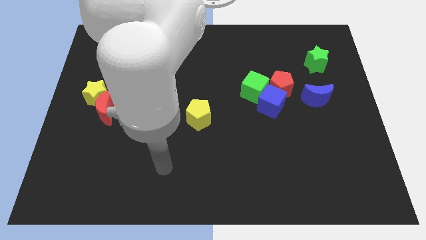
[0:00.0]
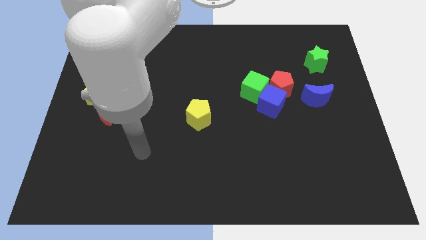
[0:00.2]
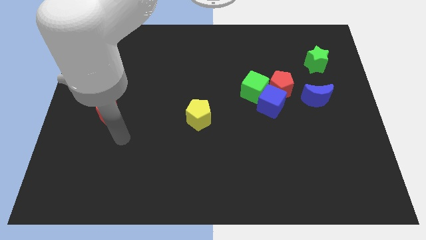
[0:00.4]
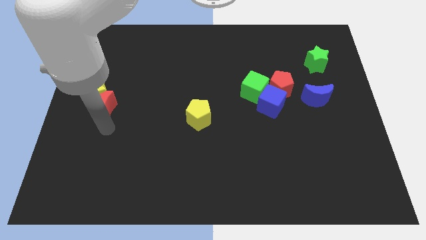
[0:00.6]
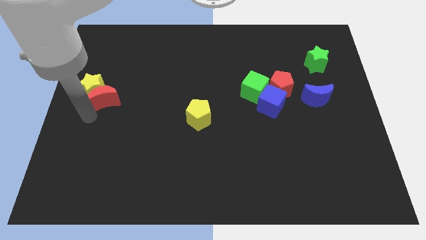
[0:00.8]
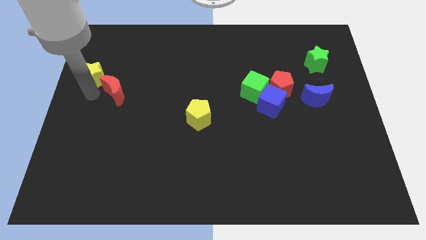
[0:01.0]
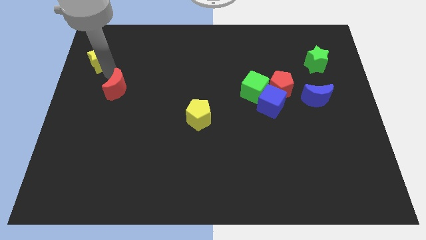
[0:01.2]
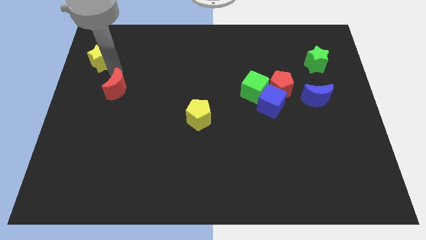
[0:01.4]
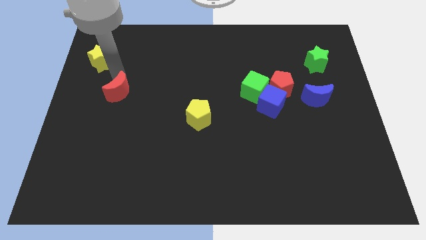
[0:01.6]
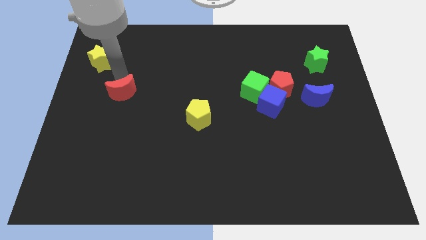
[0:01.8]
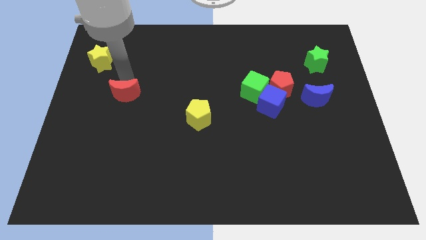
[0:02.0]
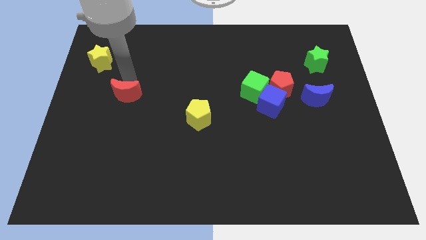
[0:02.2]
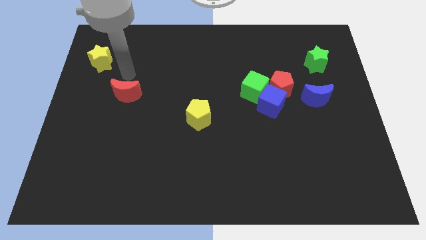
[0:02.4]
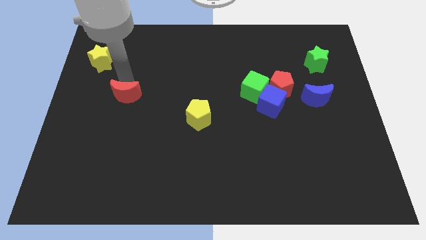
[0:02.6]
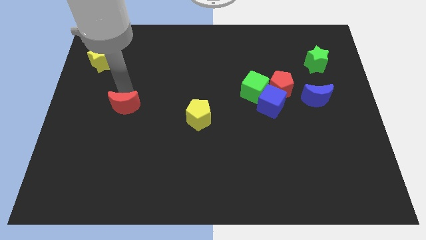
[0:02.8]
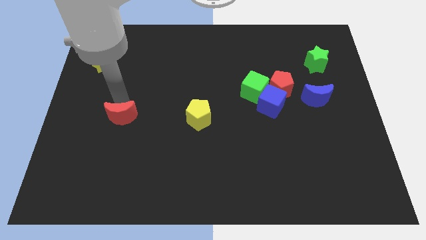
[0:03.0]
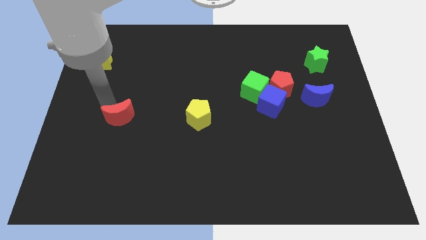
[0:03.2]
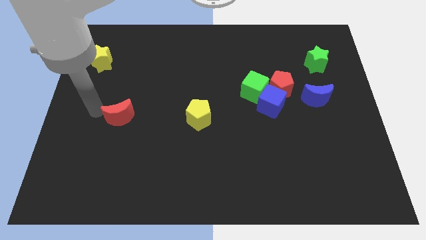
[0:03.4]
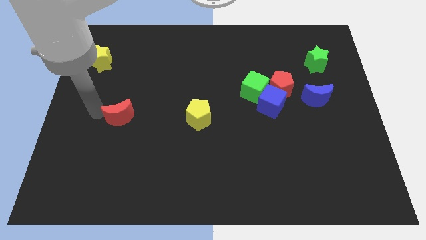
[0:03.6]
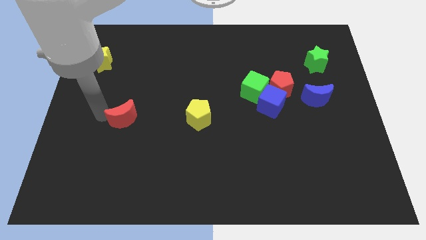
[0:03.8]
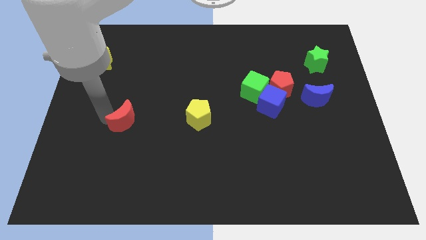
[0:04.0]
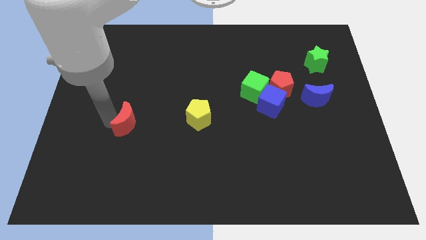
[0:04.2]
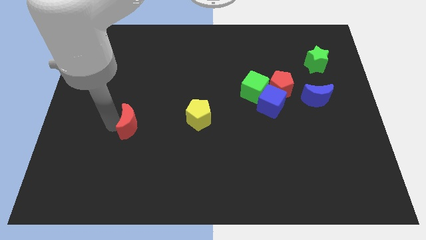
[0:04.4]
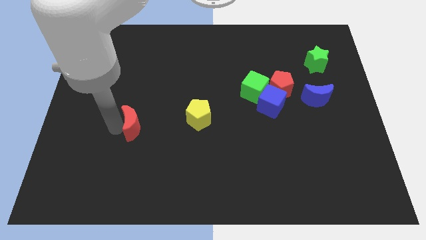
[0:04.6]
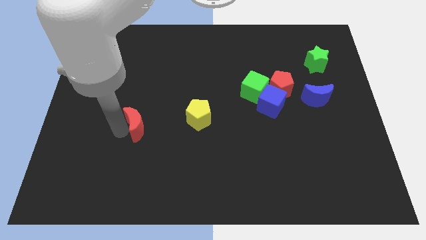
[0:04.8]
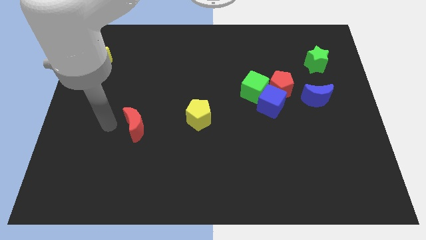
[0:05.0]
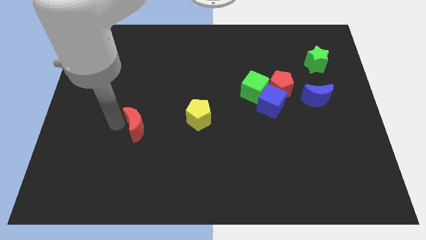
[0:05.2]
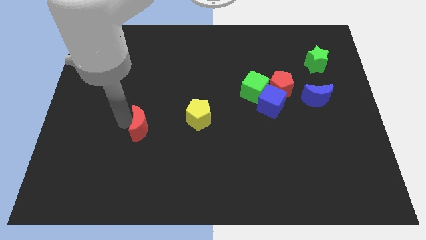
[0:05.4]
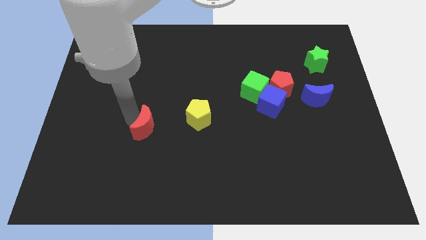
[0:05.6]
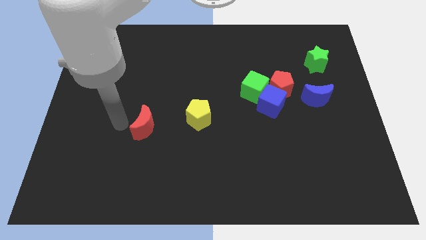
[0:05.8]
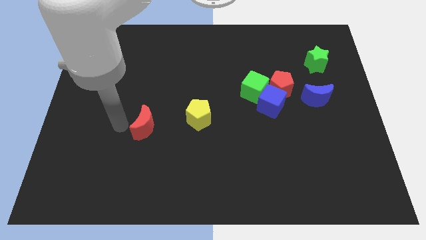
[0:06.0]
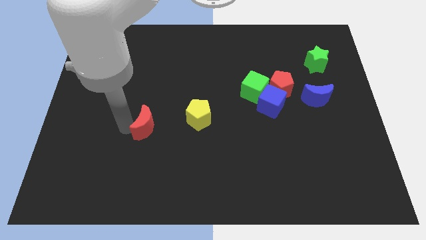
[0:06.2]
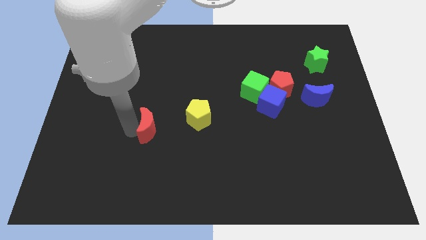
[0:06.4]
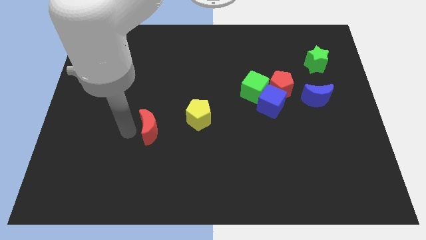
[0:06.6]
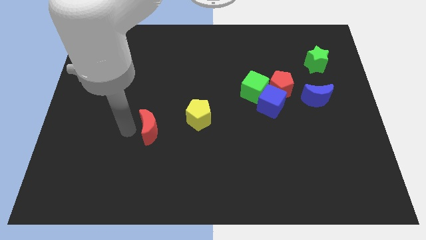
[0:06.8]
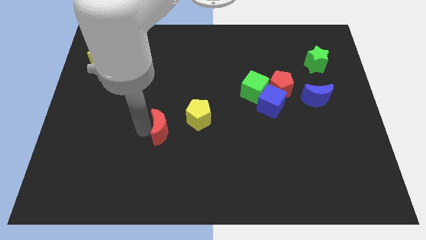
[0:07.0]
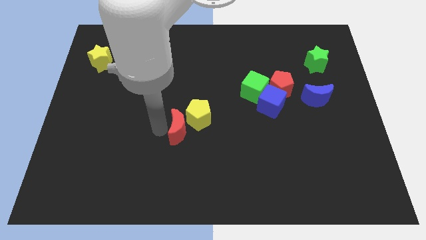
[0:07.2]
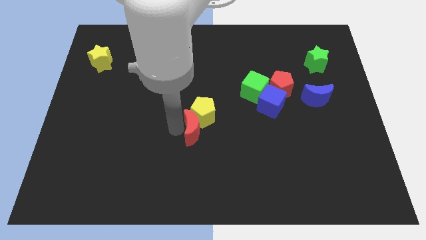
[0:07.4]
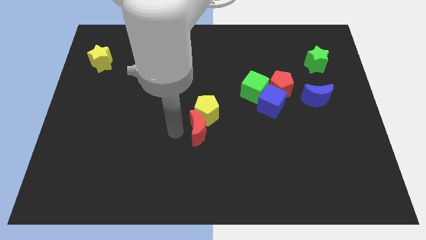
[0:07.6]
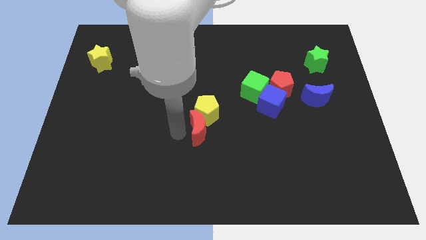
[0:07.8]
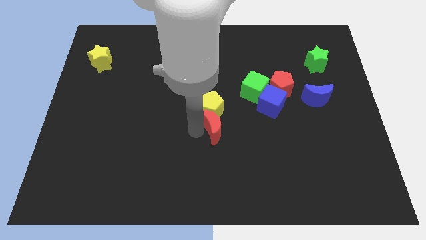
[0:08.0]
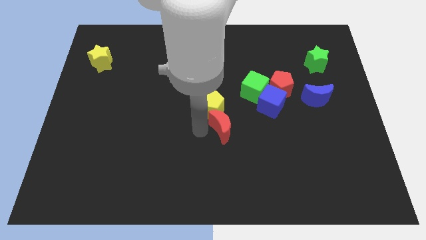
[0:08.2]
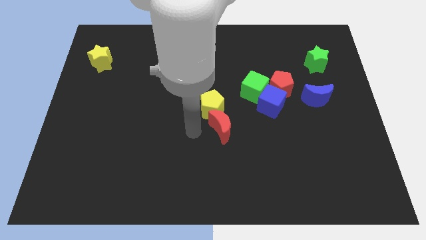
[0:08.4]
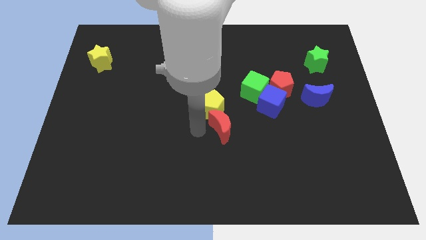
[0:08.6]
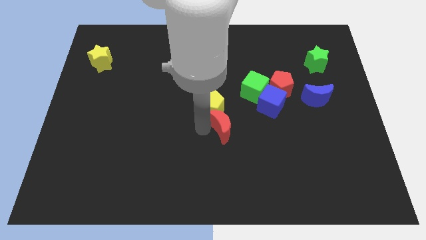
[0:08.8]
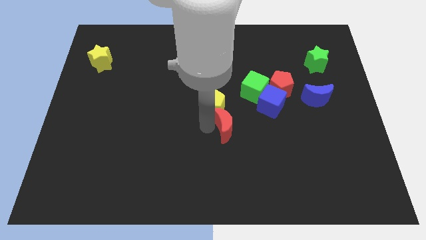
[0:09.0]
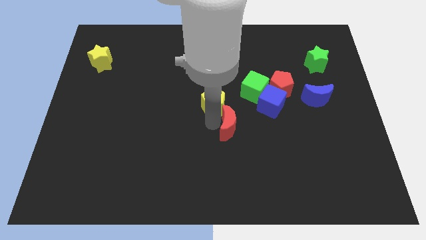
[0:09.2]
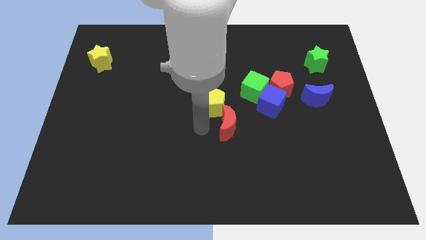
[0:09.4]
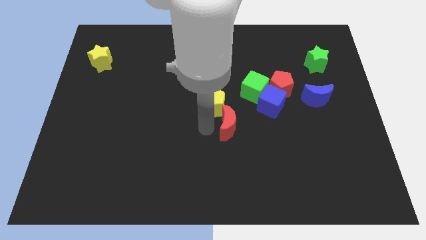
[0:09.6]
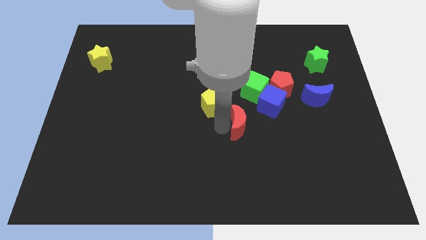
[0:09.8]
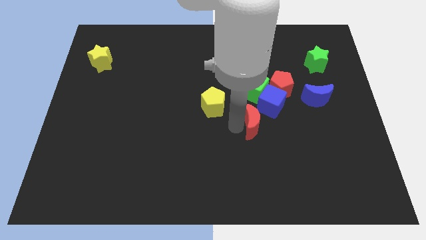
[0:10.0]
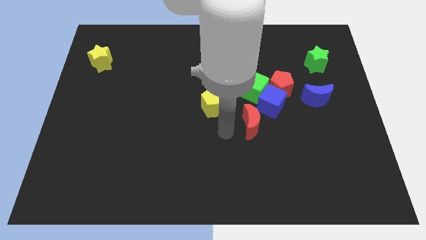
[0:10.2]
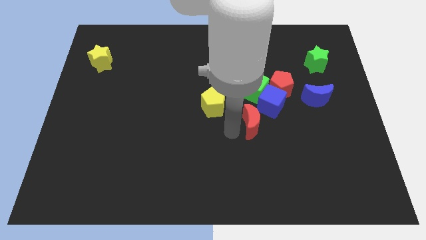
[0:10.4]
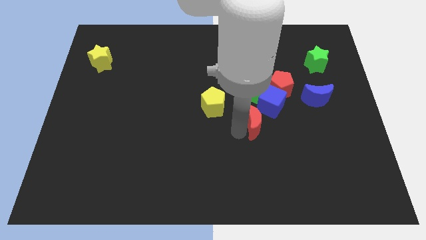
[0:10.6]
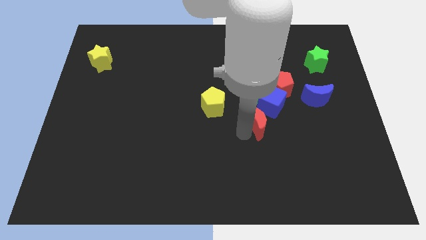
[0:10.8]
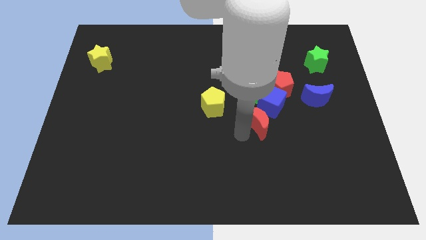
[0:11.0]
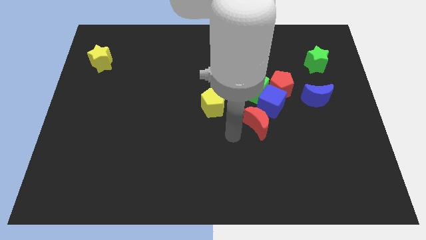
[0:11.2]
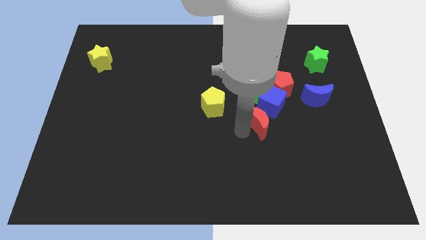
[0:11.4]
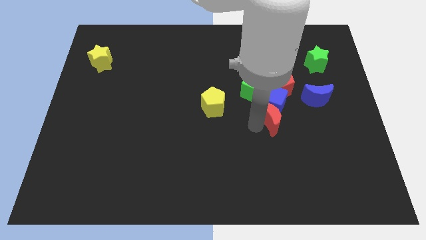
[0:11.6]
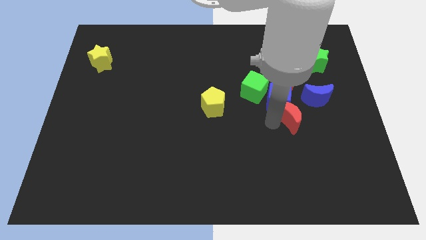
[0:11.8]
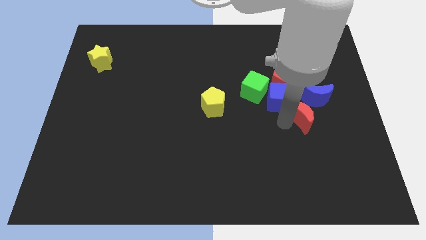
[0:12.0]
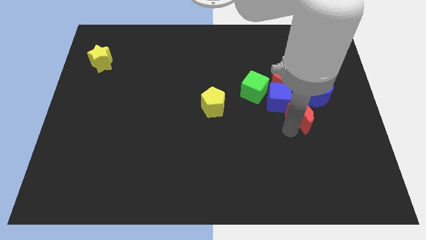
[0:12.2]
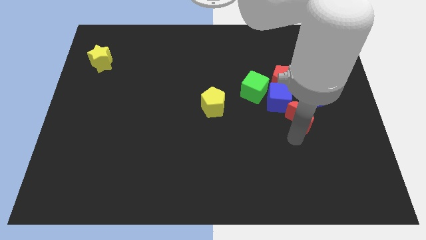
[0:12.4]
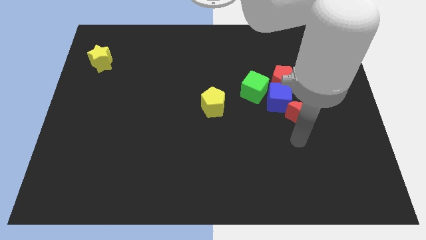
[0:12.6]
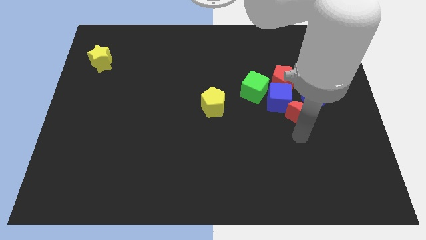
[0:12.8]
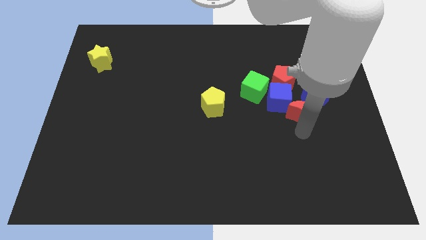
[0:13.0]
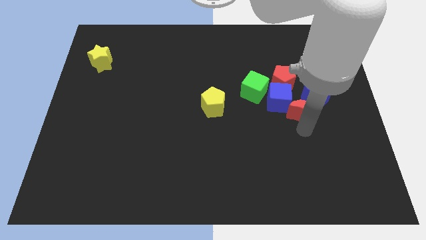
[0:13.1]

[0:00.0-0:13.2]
put the red moon next to the blue moon

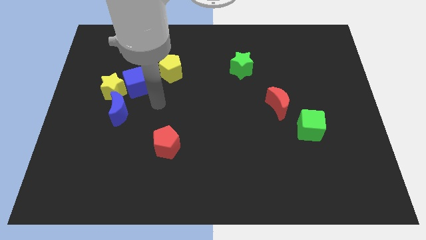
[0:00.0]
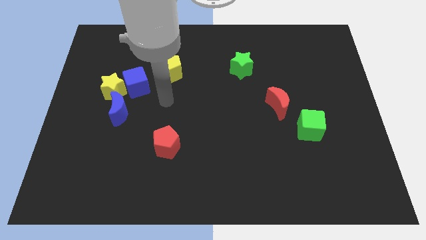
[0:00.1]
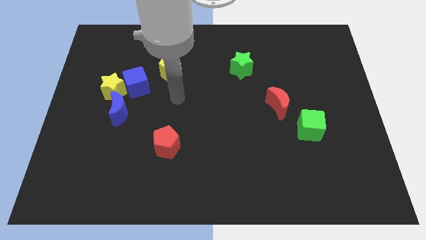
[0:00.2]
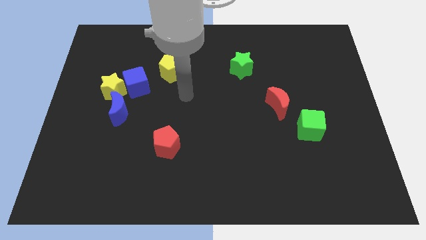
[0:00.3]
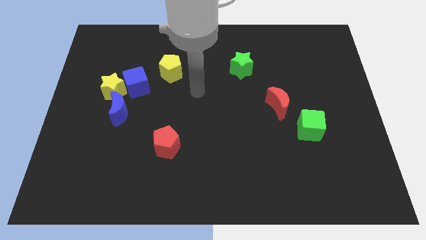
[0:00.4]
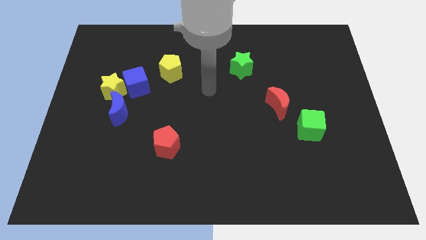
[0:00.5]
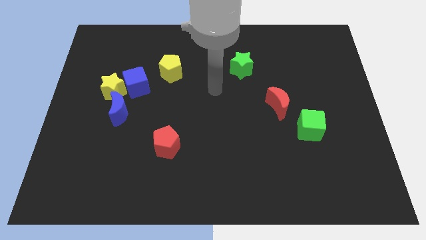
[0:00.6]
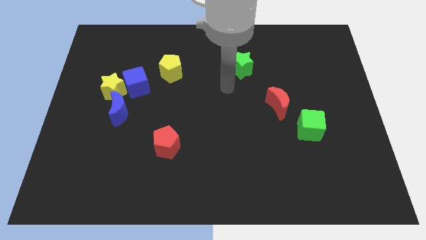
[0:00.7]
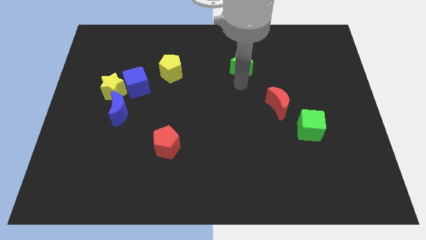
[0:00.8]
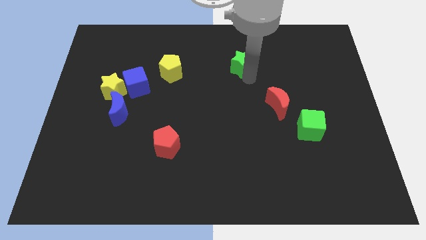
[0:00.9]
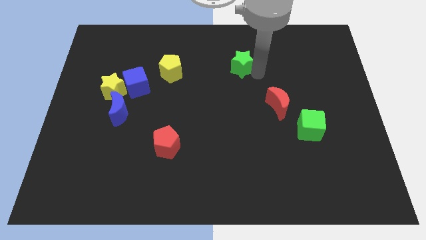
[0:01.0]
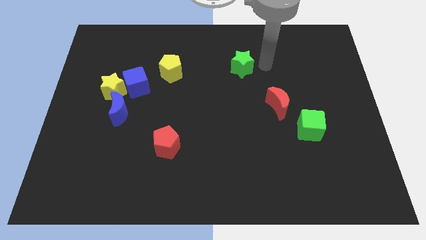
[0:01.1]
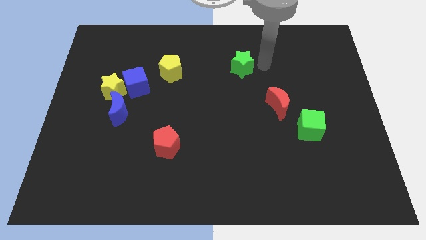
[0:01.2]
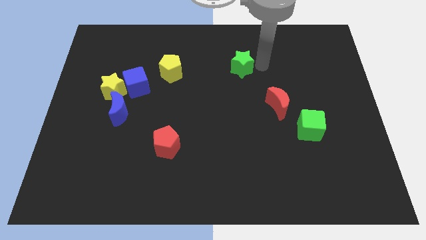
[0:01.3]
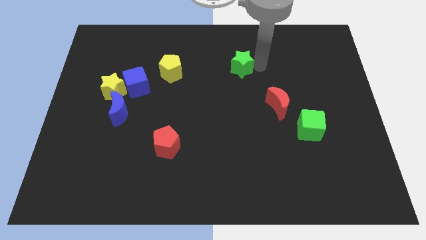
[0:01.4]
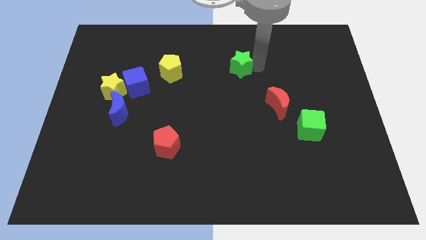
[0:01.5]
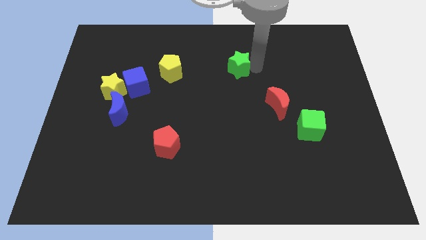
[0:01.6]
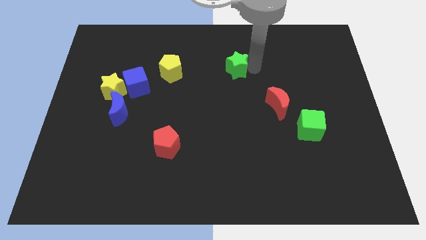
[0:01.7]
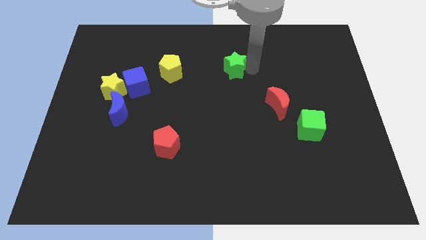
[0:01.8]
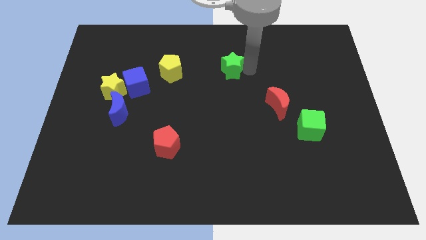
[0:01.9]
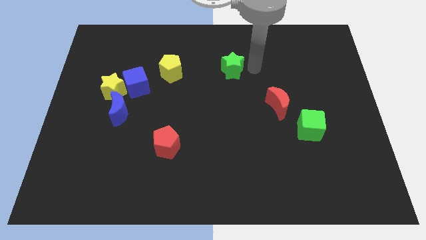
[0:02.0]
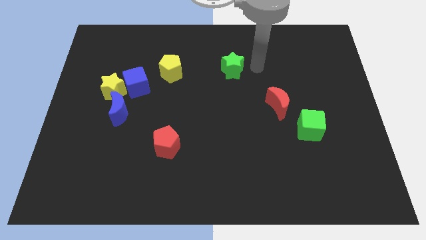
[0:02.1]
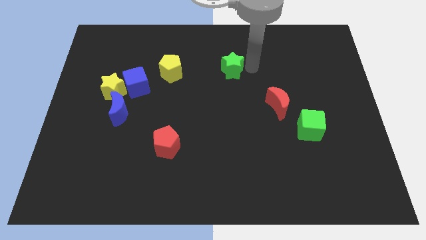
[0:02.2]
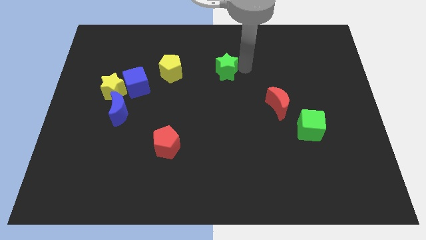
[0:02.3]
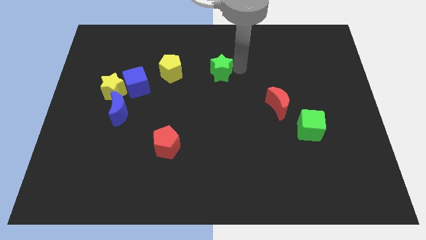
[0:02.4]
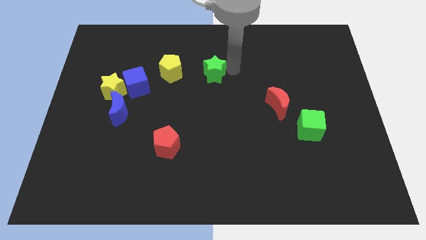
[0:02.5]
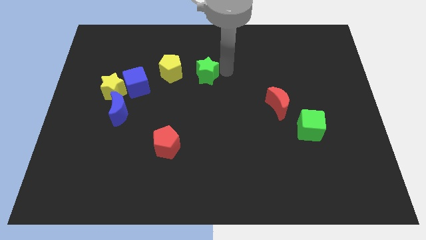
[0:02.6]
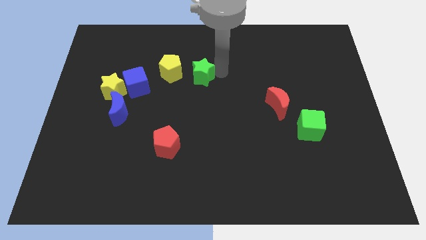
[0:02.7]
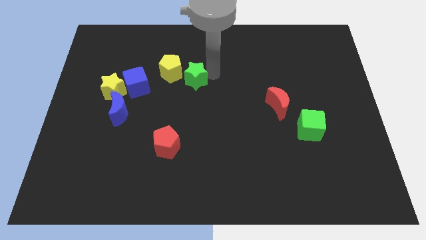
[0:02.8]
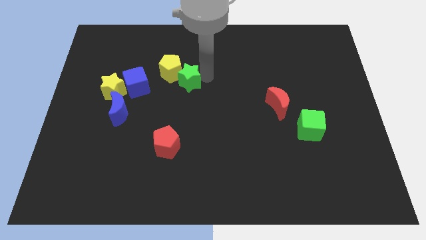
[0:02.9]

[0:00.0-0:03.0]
slide the green star towards the yellow pentagon
